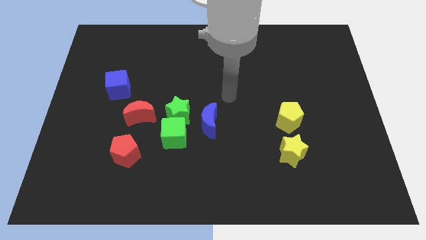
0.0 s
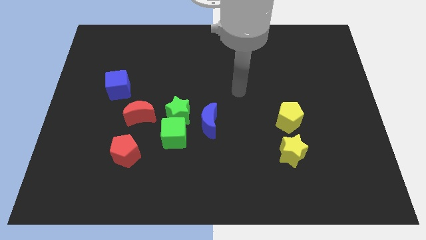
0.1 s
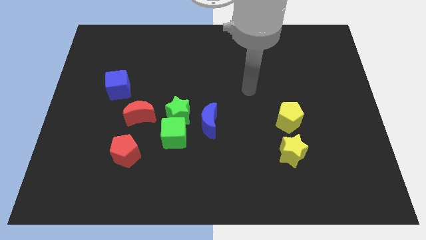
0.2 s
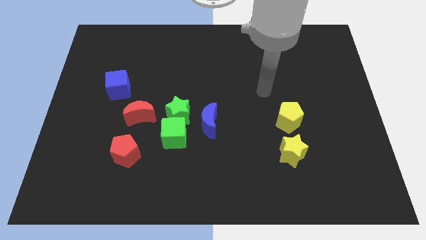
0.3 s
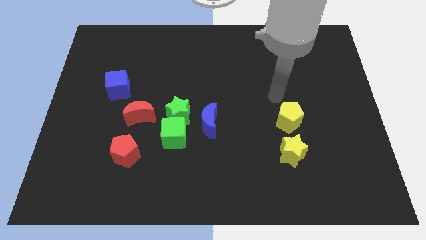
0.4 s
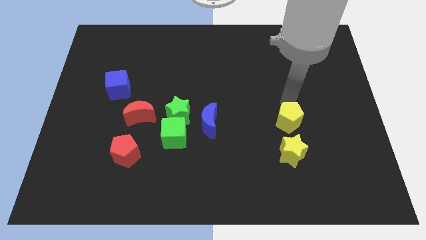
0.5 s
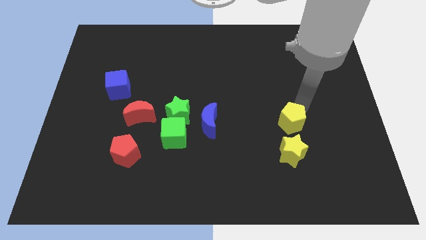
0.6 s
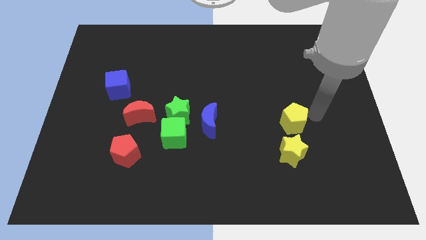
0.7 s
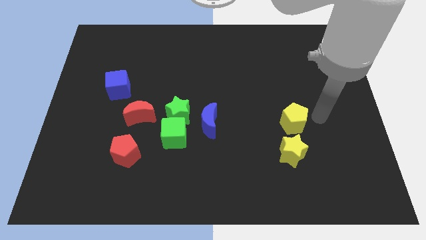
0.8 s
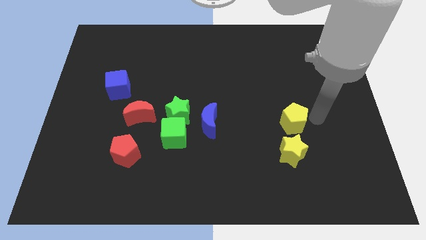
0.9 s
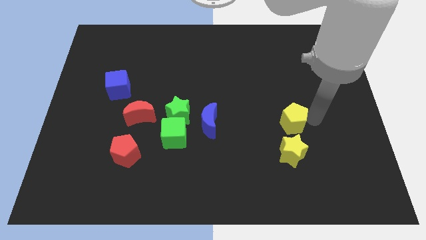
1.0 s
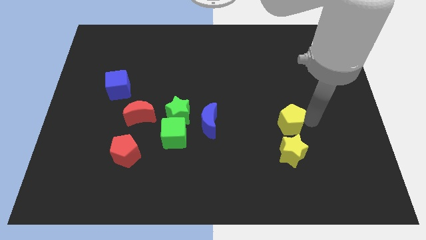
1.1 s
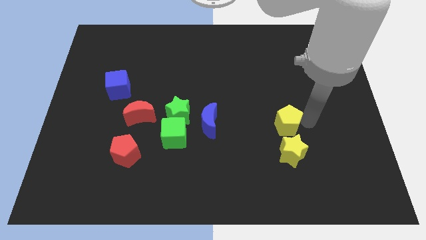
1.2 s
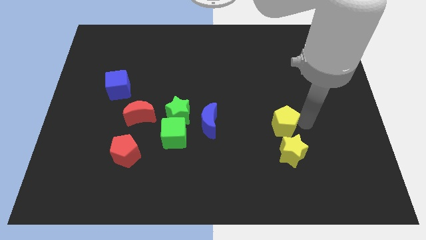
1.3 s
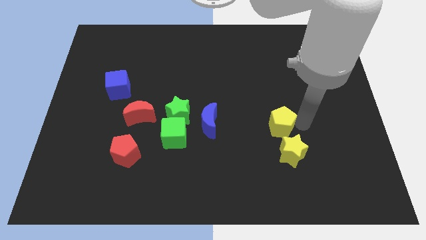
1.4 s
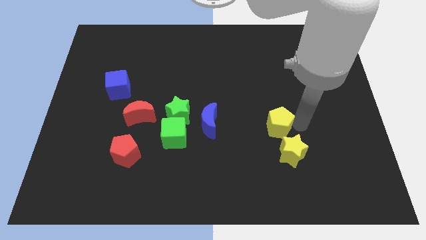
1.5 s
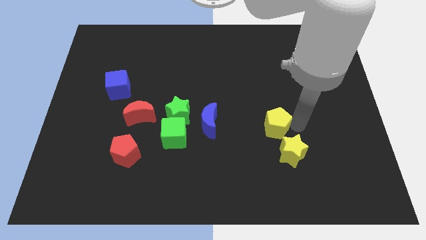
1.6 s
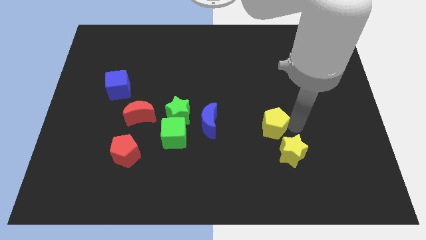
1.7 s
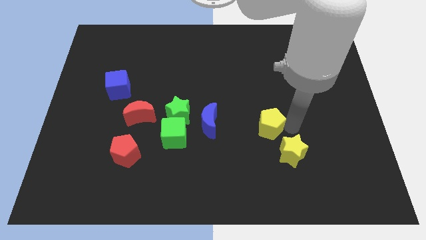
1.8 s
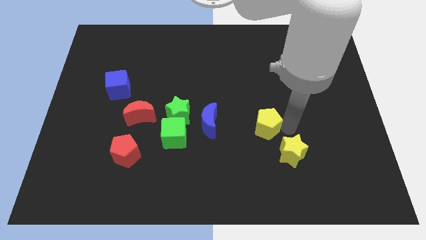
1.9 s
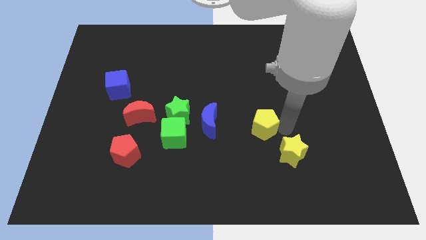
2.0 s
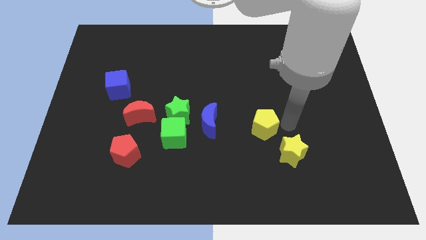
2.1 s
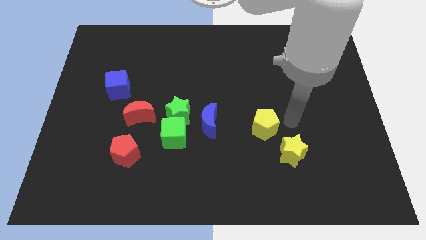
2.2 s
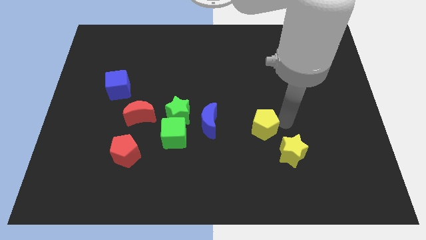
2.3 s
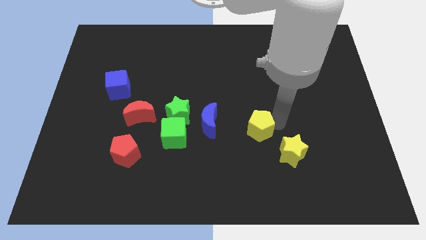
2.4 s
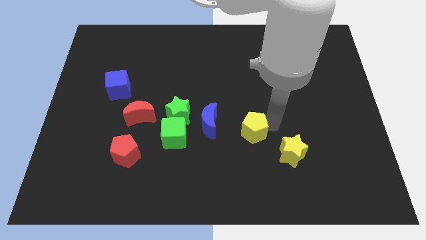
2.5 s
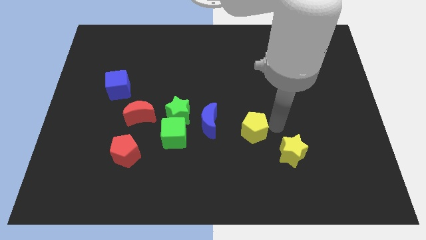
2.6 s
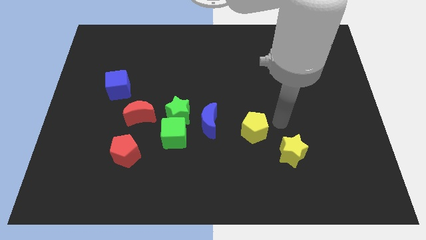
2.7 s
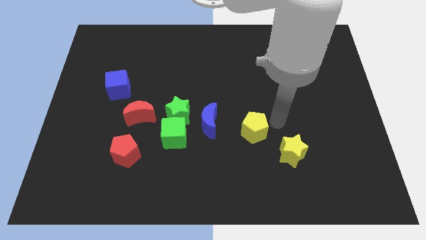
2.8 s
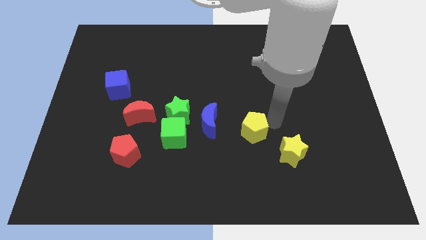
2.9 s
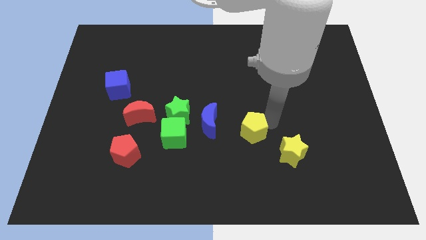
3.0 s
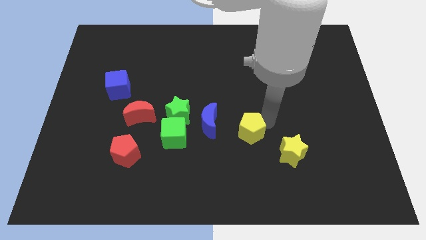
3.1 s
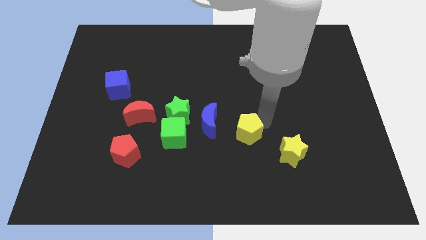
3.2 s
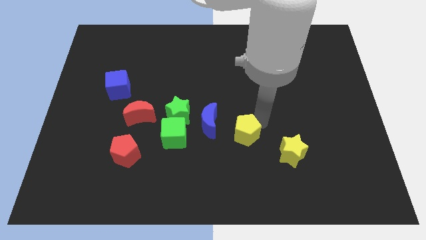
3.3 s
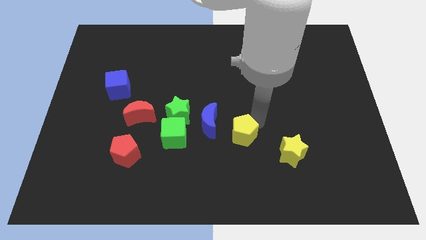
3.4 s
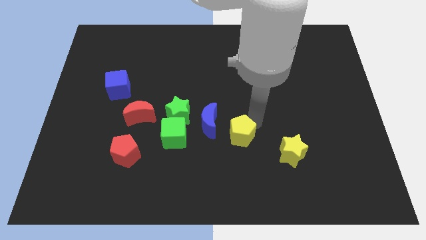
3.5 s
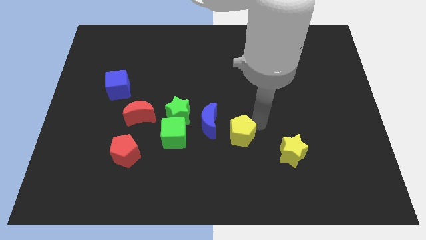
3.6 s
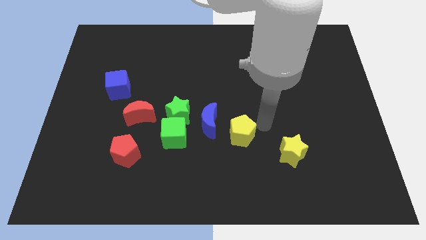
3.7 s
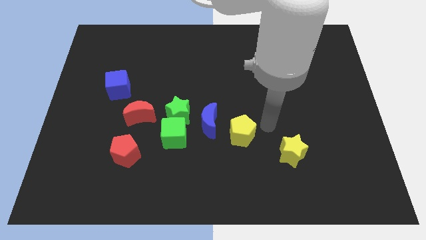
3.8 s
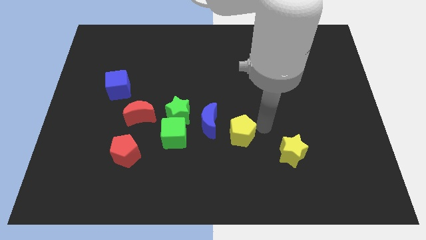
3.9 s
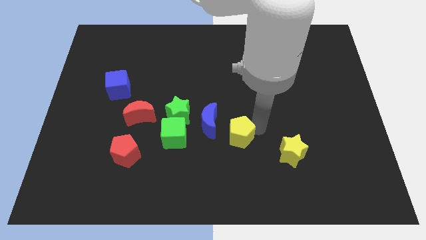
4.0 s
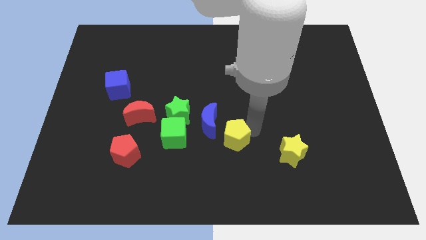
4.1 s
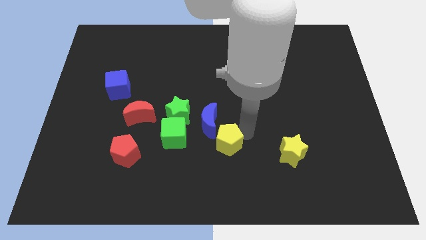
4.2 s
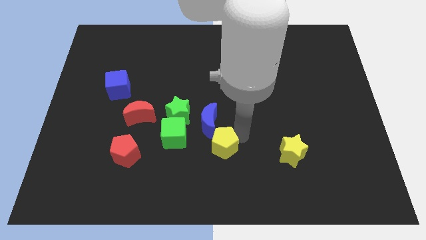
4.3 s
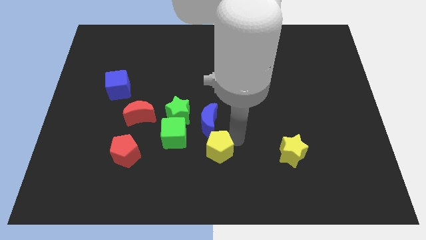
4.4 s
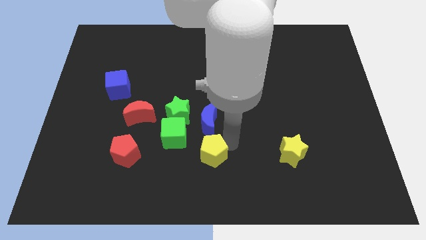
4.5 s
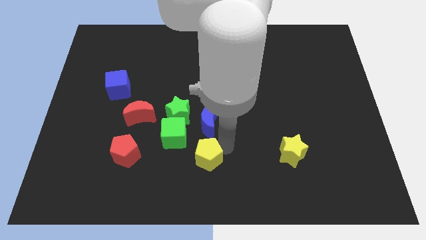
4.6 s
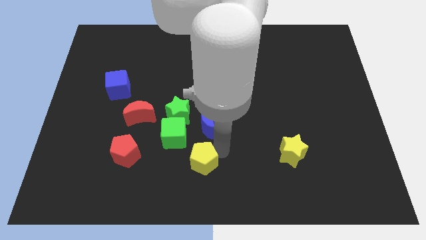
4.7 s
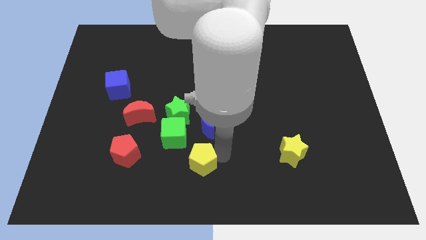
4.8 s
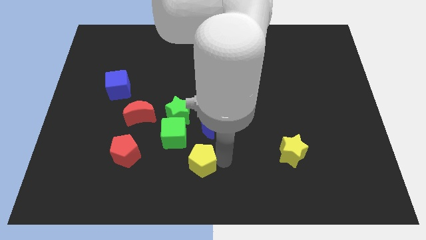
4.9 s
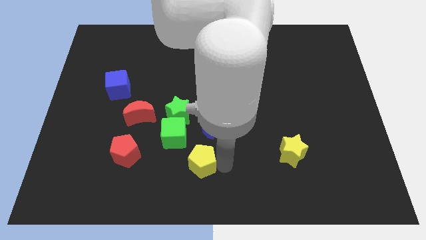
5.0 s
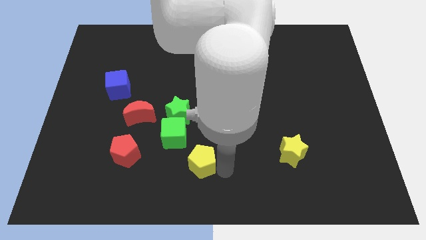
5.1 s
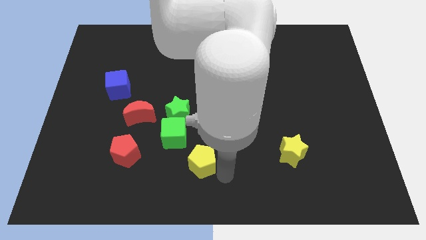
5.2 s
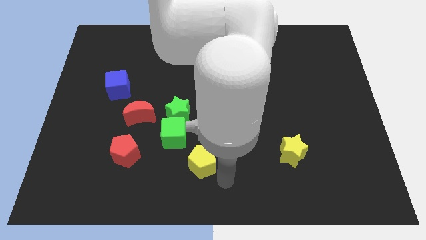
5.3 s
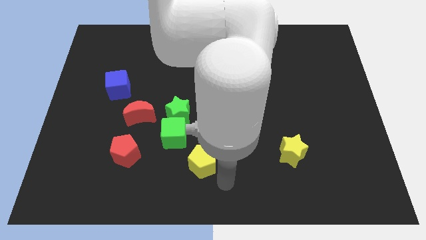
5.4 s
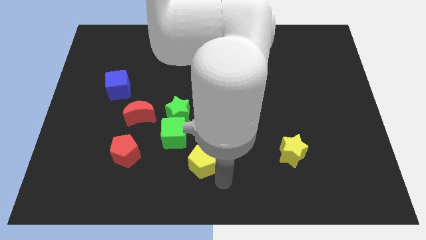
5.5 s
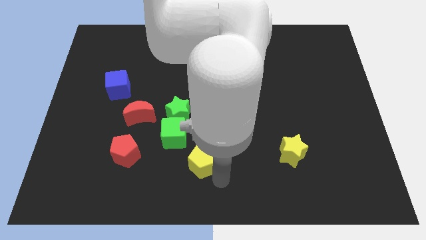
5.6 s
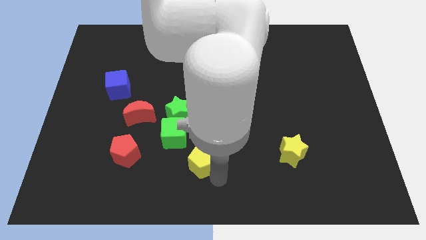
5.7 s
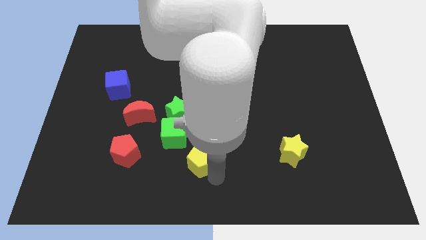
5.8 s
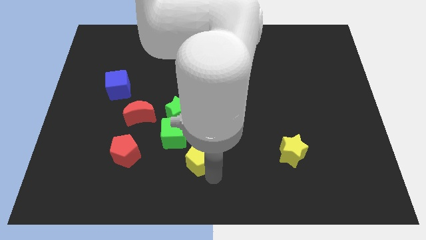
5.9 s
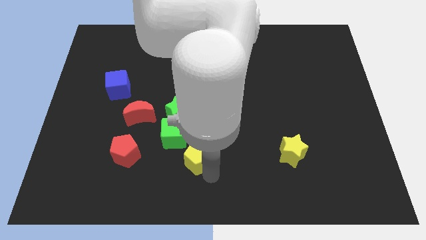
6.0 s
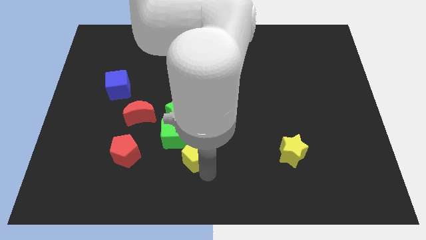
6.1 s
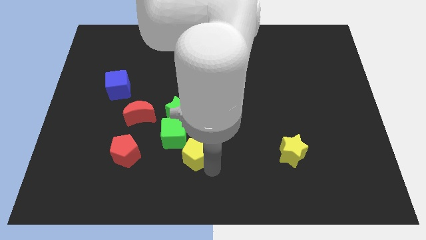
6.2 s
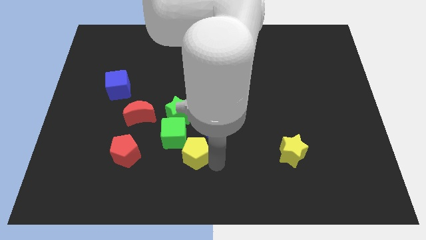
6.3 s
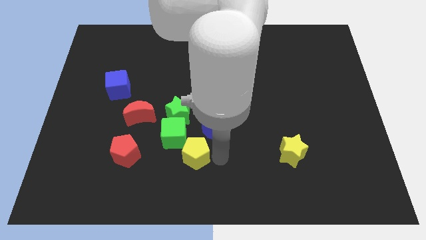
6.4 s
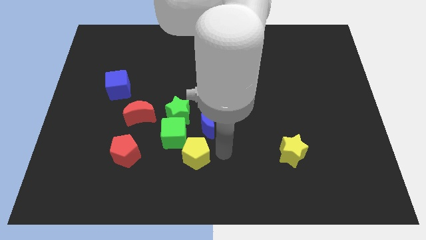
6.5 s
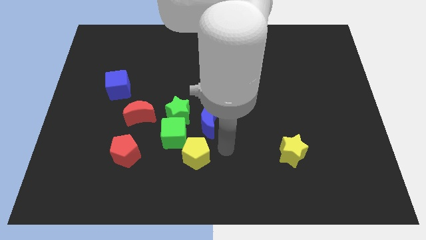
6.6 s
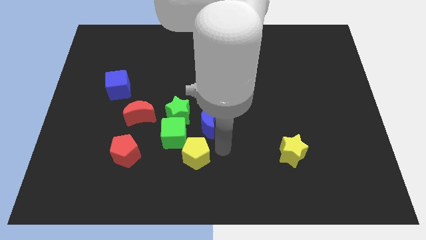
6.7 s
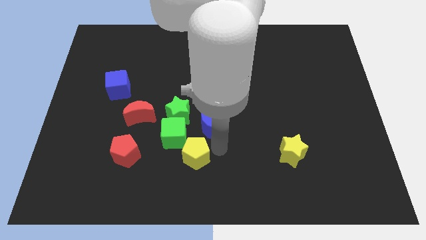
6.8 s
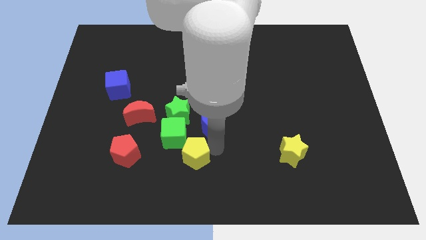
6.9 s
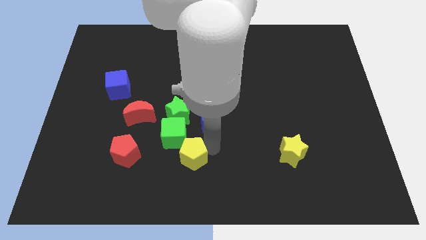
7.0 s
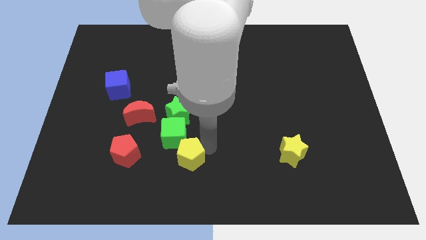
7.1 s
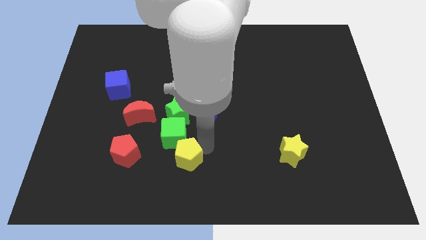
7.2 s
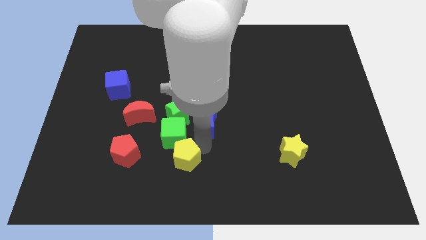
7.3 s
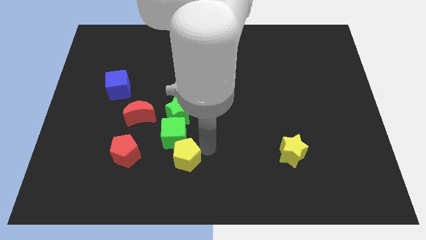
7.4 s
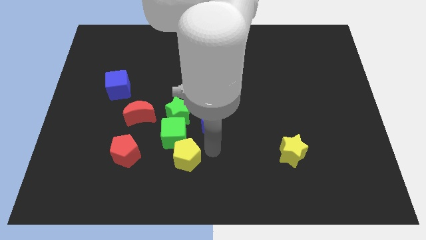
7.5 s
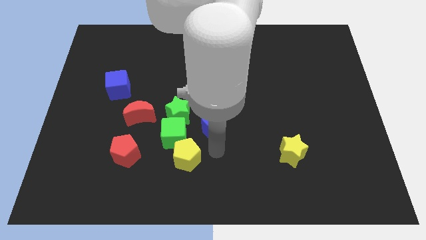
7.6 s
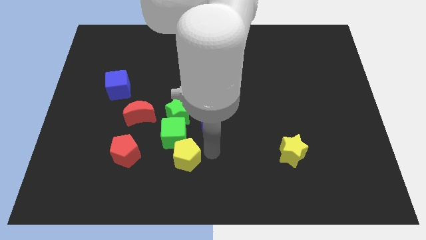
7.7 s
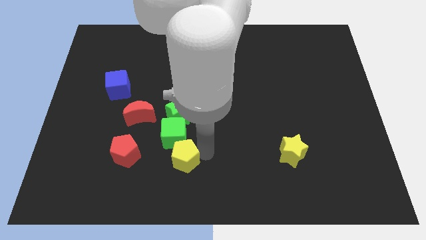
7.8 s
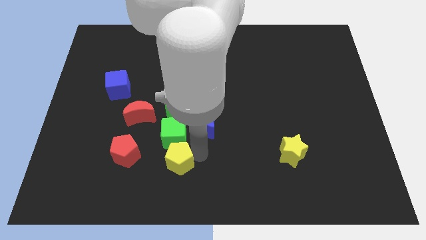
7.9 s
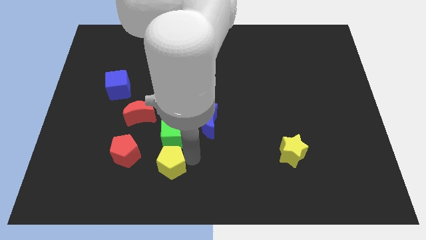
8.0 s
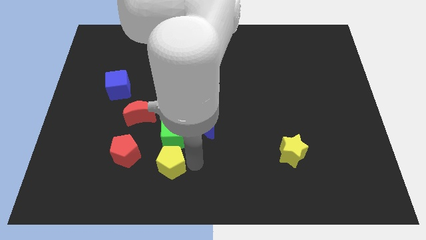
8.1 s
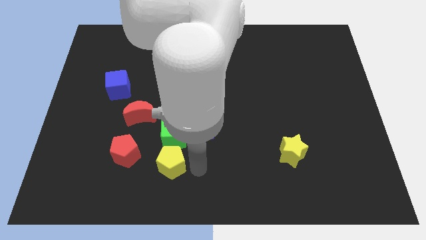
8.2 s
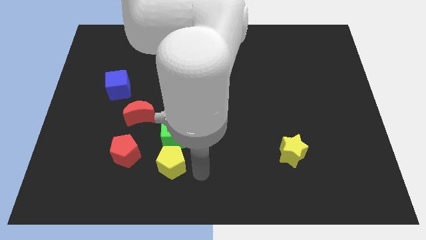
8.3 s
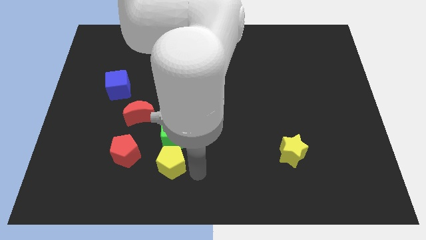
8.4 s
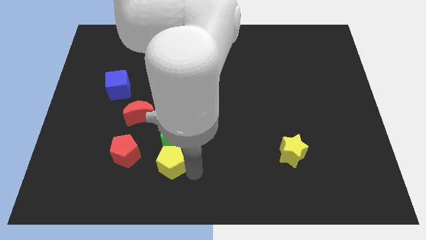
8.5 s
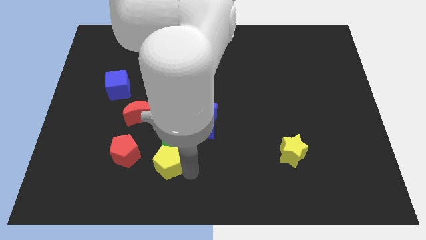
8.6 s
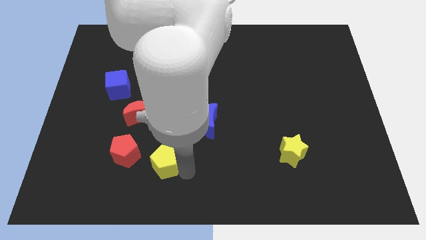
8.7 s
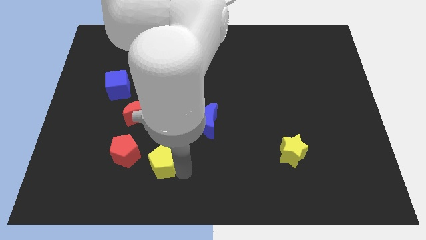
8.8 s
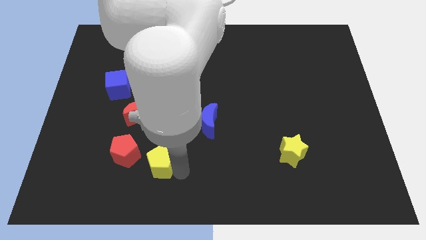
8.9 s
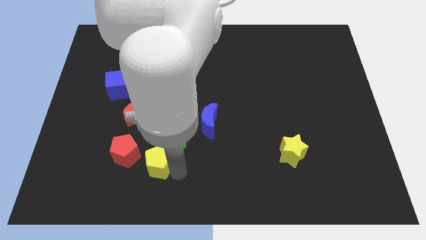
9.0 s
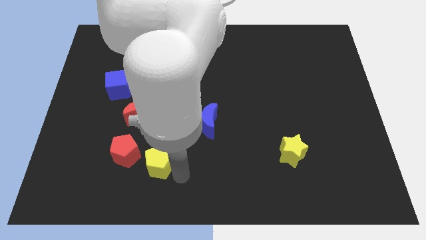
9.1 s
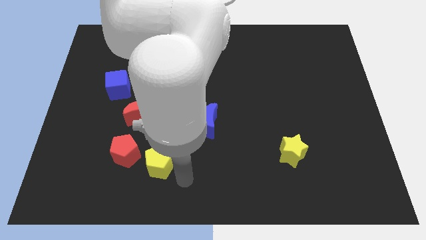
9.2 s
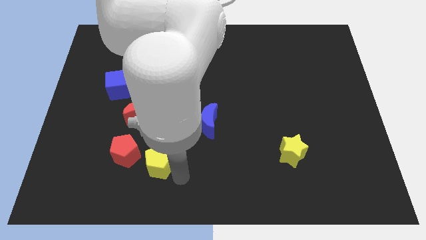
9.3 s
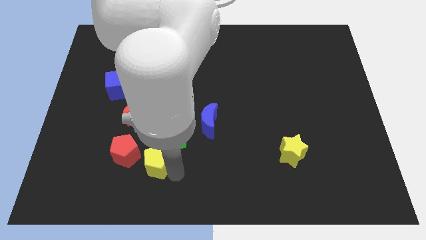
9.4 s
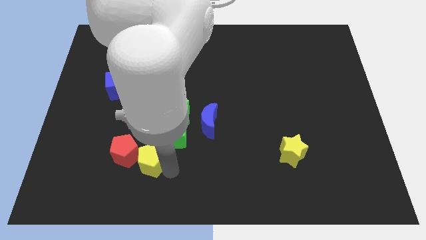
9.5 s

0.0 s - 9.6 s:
put the yellow pentagon next to the red pentagon
